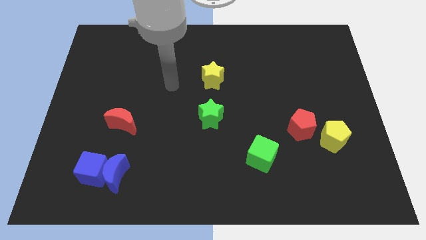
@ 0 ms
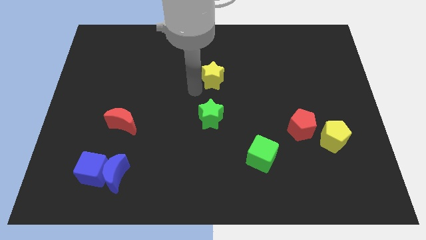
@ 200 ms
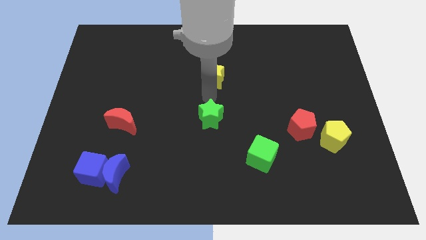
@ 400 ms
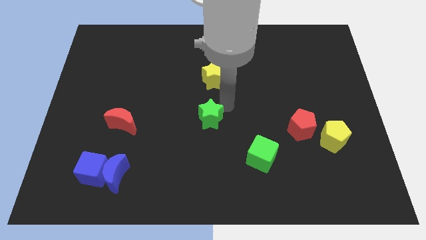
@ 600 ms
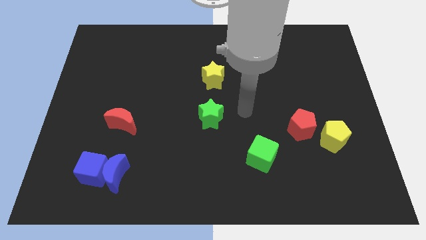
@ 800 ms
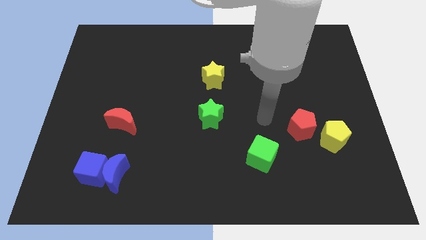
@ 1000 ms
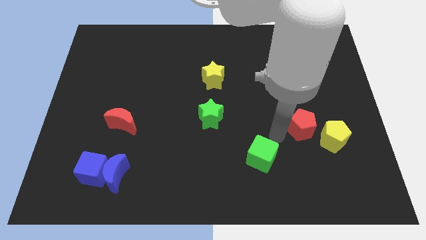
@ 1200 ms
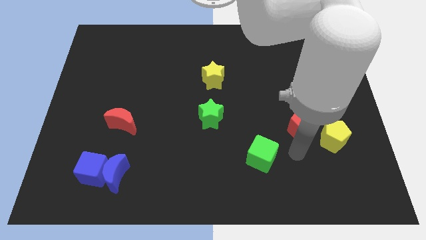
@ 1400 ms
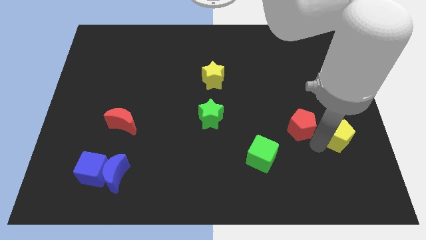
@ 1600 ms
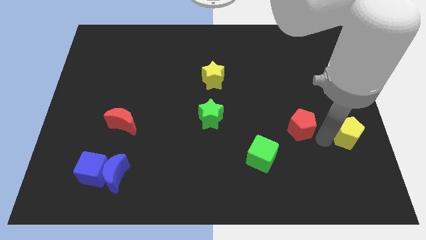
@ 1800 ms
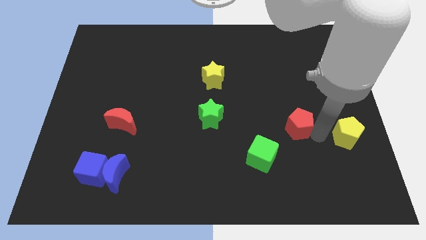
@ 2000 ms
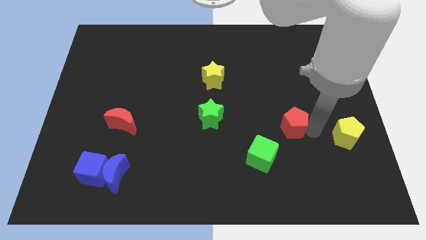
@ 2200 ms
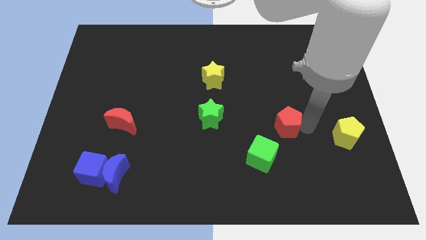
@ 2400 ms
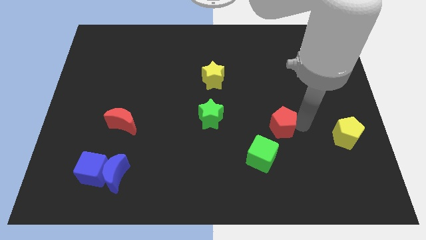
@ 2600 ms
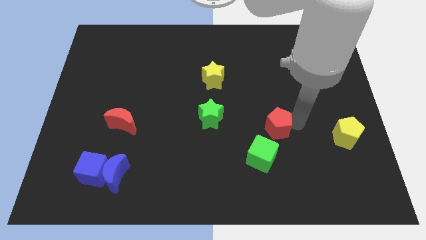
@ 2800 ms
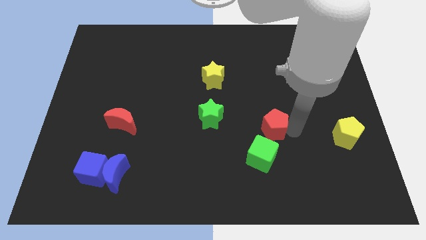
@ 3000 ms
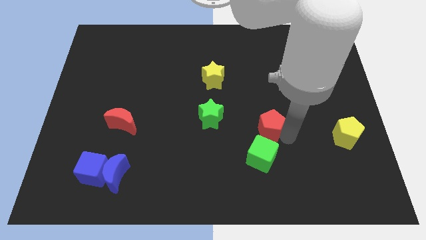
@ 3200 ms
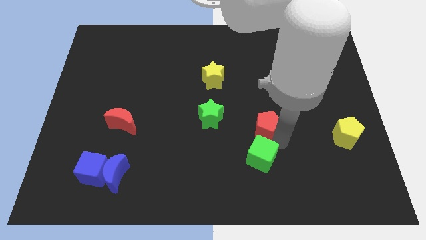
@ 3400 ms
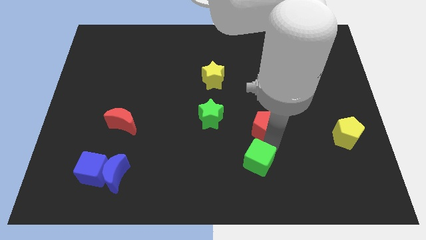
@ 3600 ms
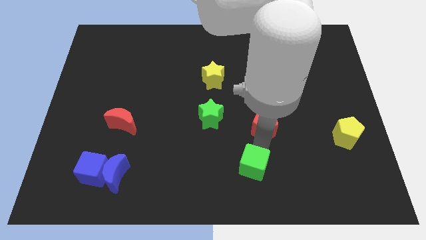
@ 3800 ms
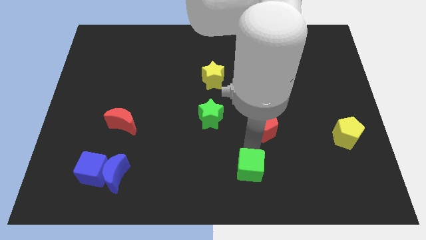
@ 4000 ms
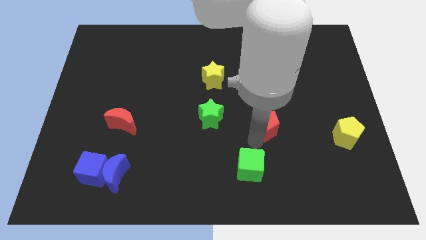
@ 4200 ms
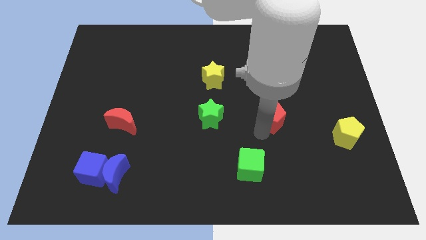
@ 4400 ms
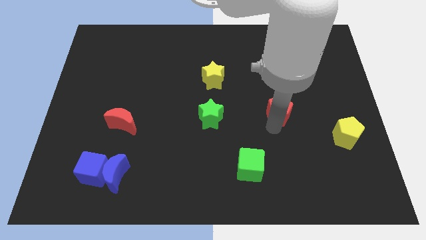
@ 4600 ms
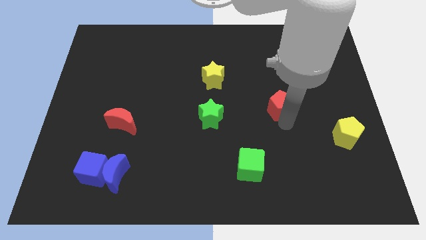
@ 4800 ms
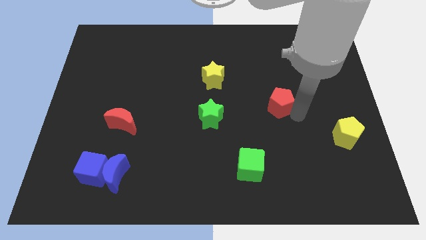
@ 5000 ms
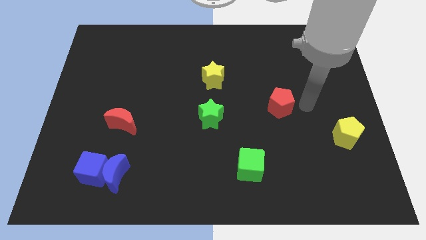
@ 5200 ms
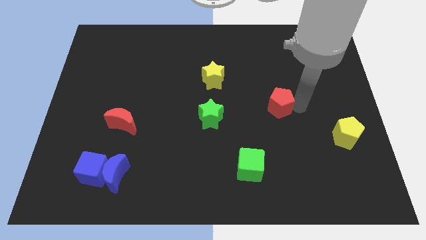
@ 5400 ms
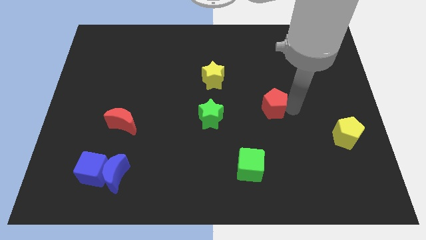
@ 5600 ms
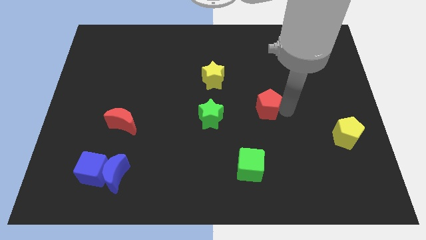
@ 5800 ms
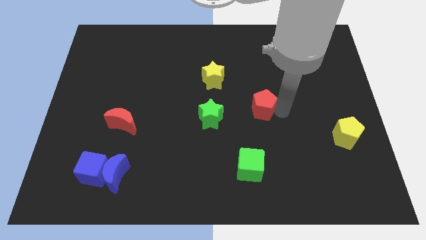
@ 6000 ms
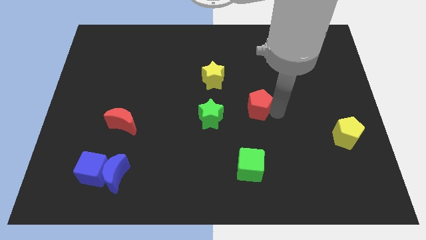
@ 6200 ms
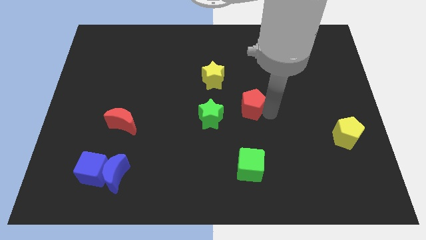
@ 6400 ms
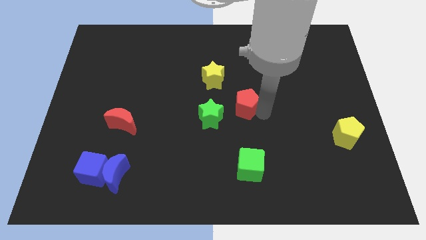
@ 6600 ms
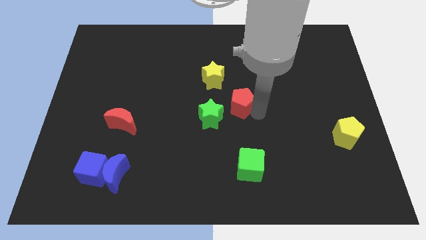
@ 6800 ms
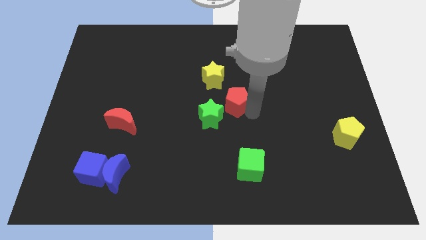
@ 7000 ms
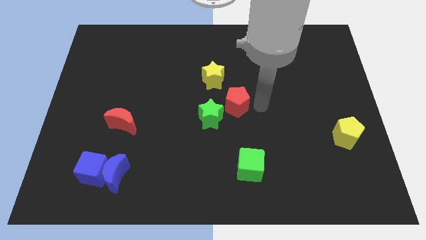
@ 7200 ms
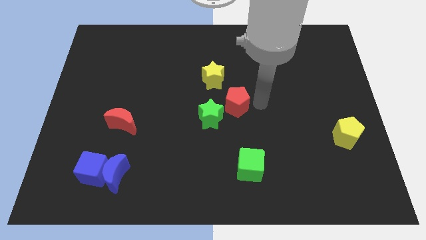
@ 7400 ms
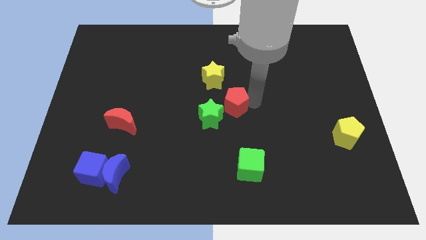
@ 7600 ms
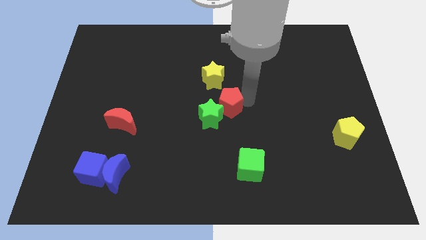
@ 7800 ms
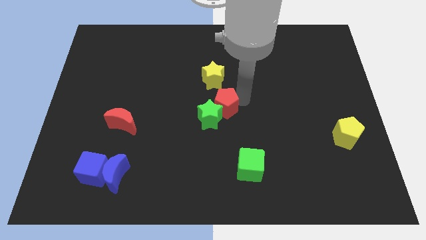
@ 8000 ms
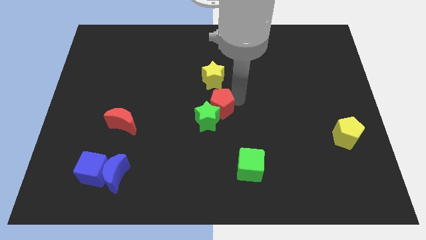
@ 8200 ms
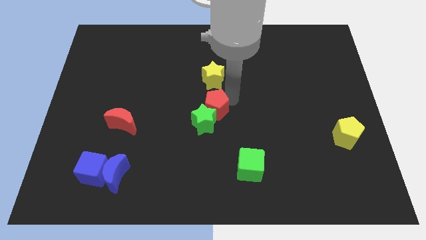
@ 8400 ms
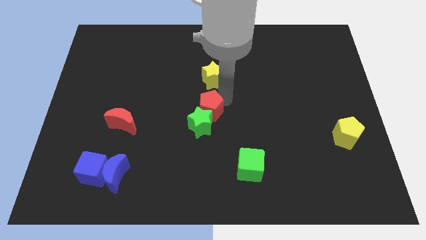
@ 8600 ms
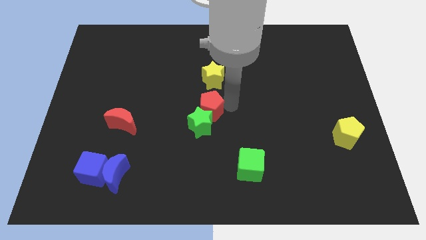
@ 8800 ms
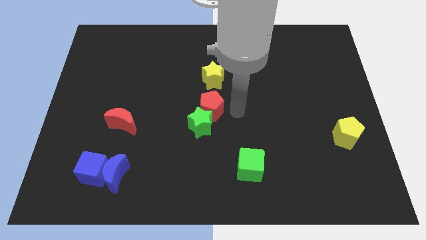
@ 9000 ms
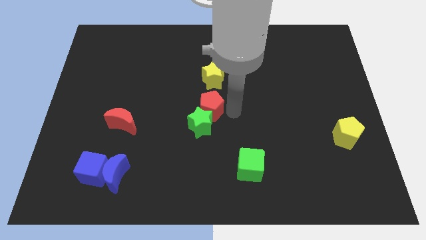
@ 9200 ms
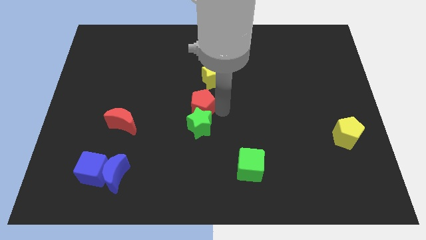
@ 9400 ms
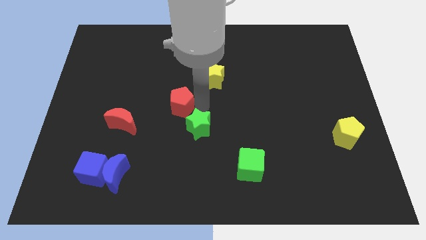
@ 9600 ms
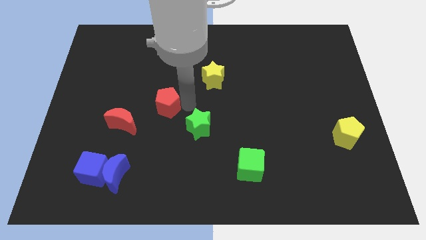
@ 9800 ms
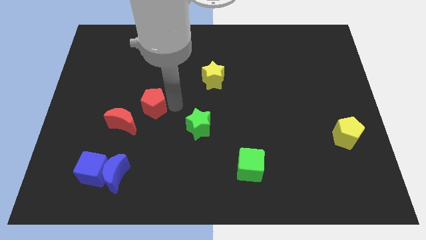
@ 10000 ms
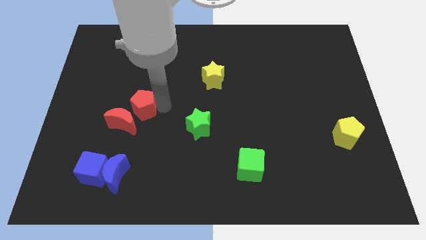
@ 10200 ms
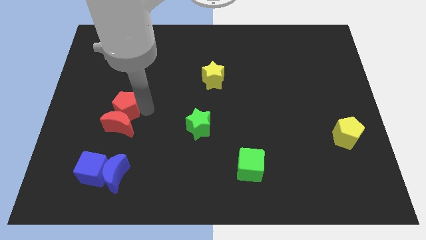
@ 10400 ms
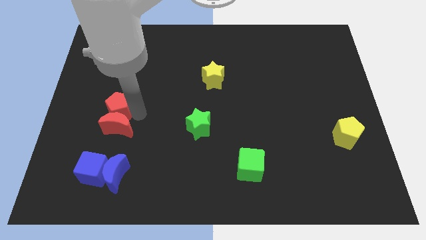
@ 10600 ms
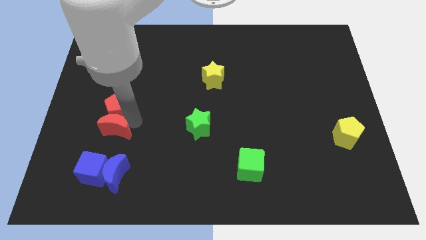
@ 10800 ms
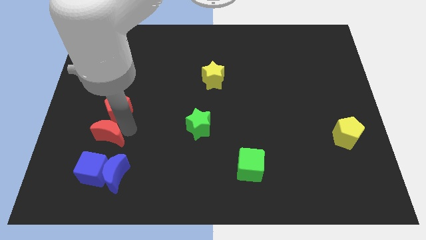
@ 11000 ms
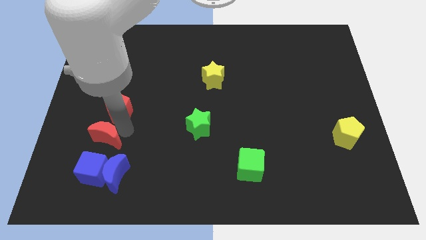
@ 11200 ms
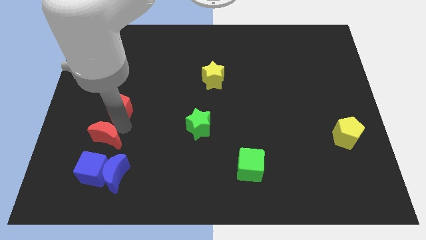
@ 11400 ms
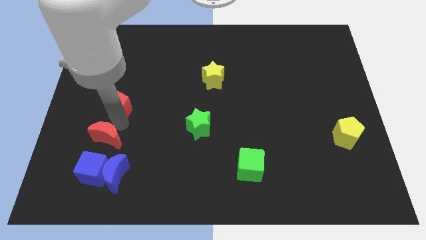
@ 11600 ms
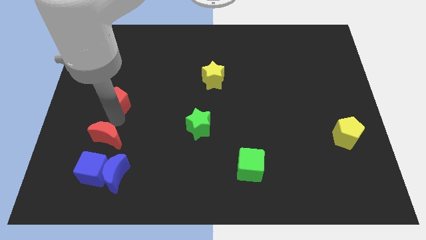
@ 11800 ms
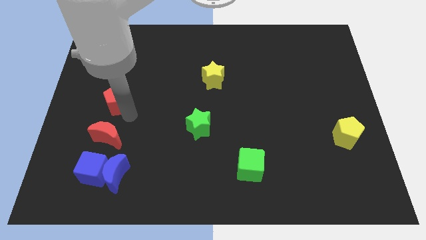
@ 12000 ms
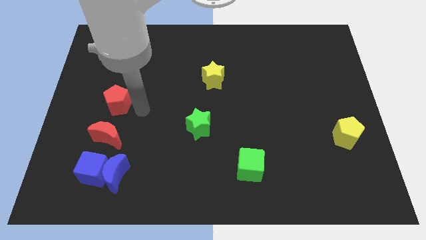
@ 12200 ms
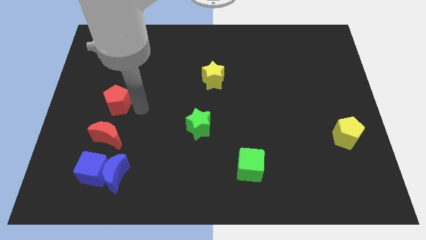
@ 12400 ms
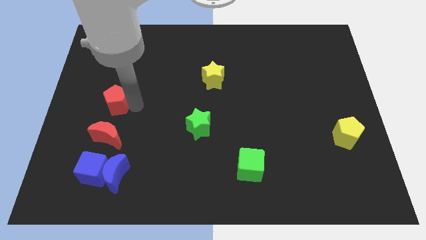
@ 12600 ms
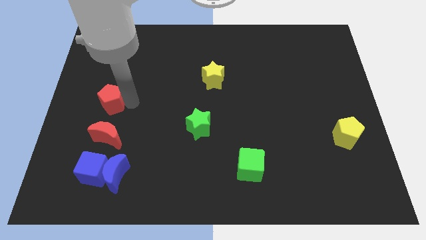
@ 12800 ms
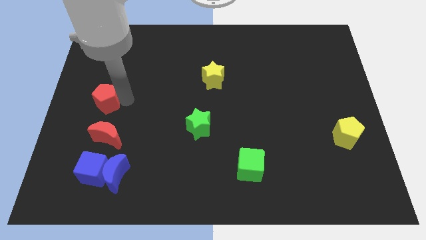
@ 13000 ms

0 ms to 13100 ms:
push the red pentagon to the center left

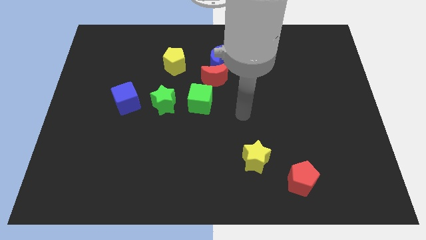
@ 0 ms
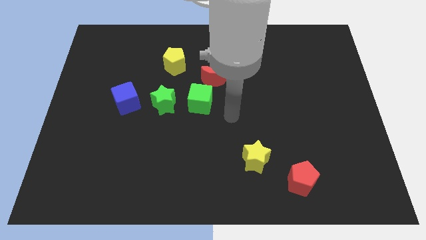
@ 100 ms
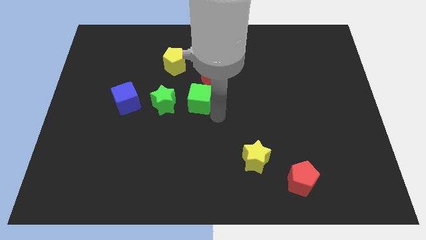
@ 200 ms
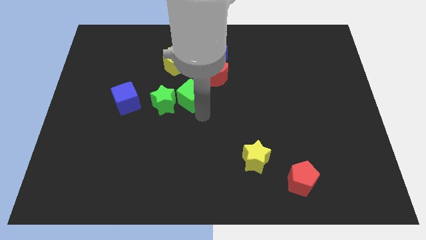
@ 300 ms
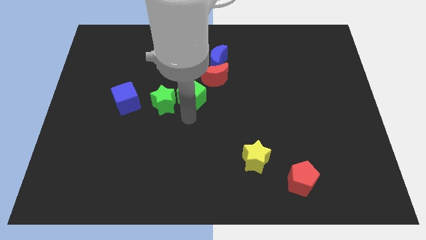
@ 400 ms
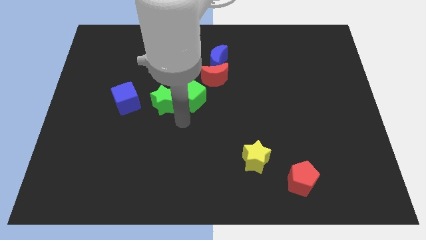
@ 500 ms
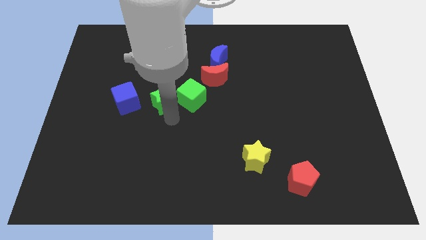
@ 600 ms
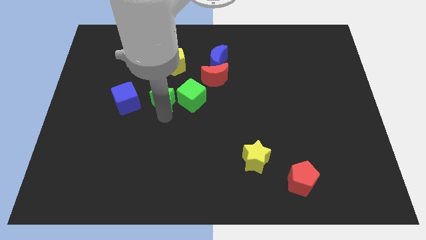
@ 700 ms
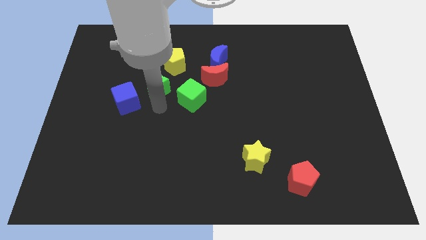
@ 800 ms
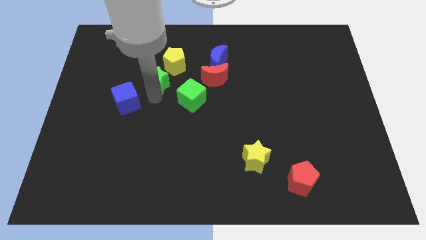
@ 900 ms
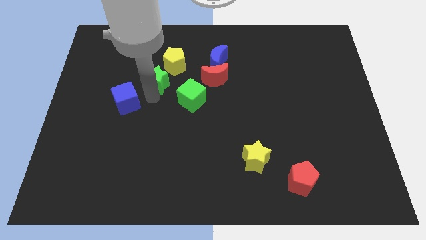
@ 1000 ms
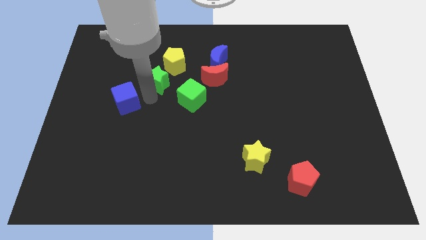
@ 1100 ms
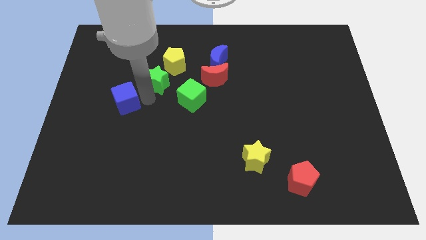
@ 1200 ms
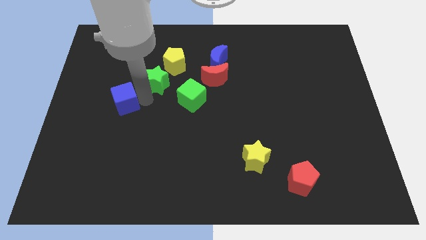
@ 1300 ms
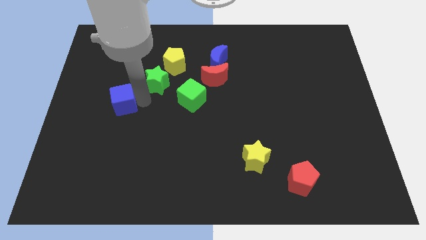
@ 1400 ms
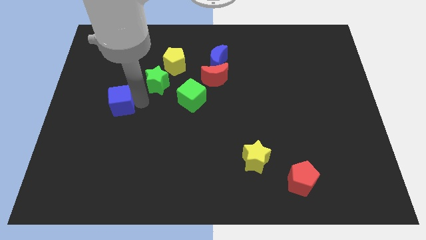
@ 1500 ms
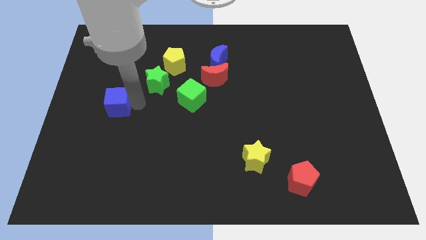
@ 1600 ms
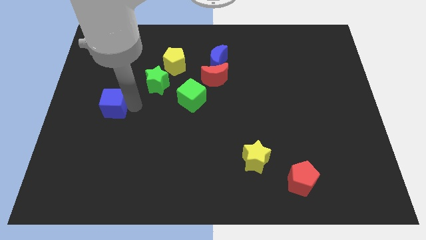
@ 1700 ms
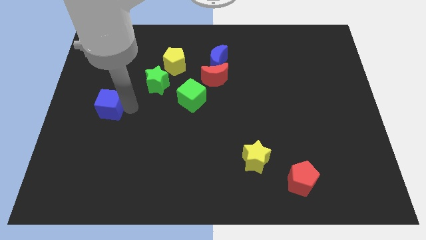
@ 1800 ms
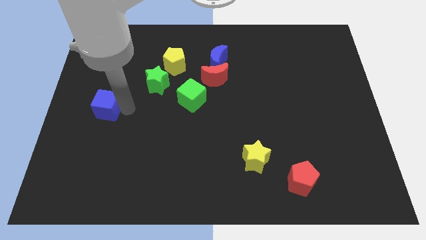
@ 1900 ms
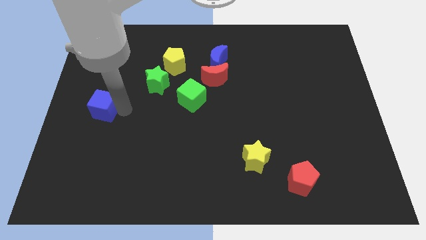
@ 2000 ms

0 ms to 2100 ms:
push the blue cube to the left side
